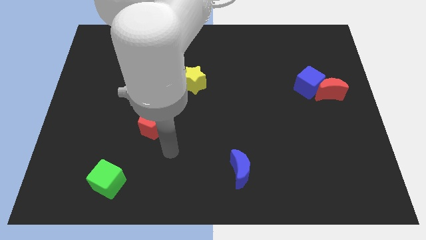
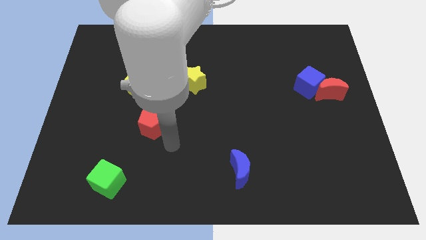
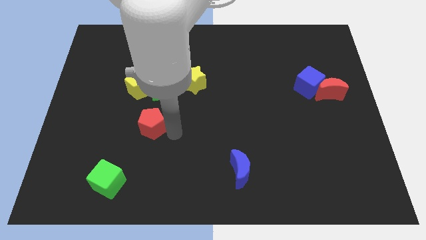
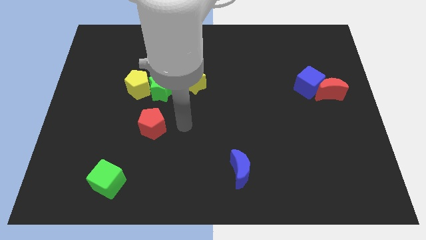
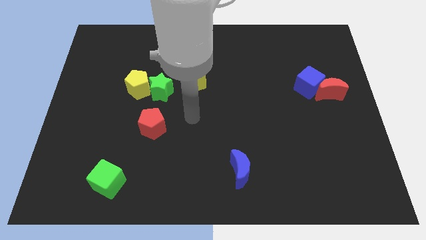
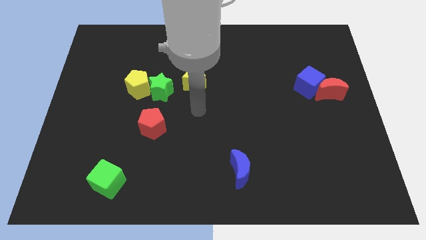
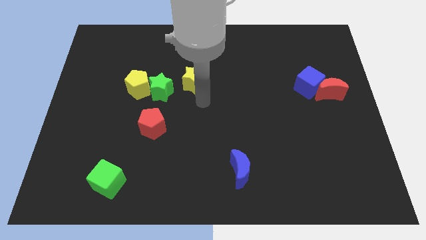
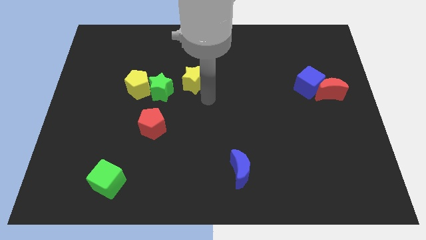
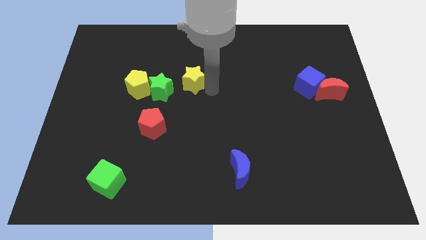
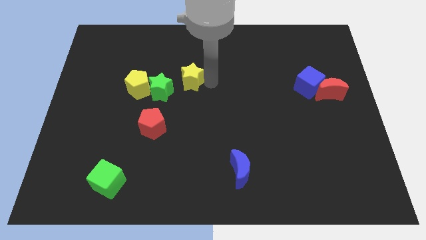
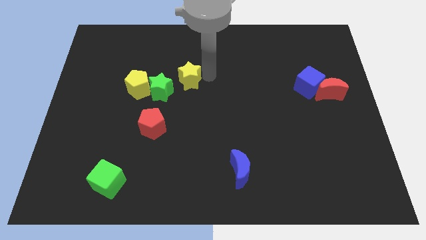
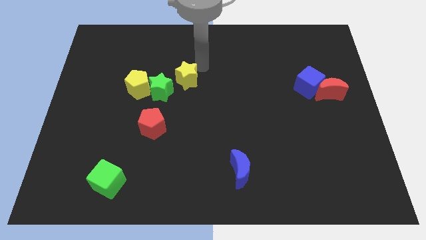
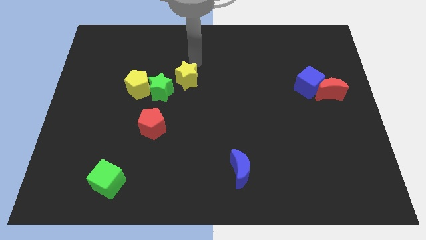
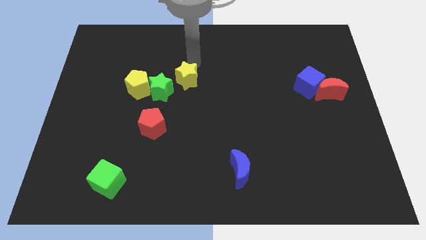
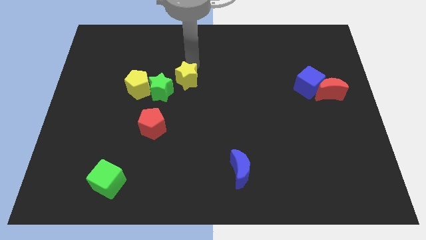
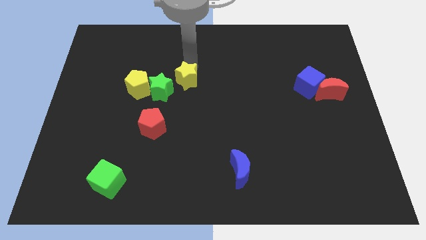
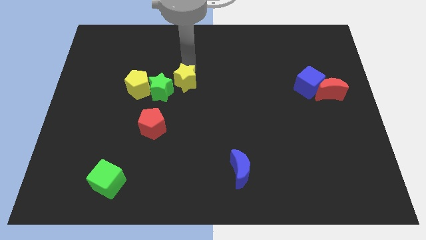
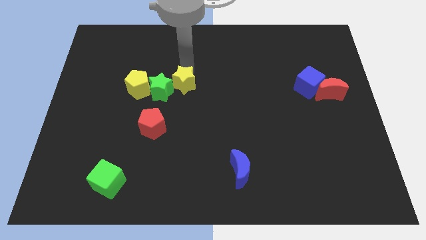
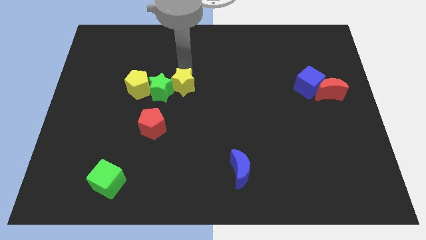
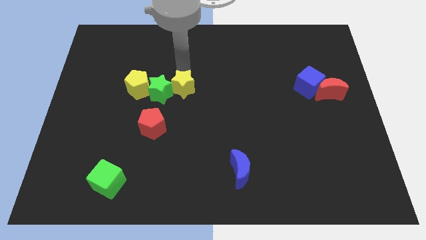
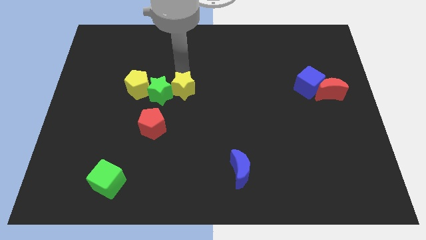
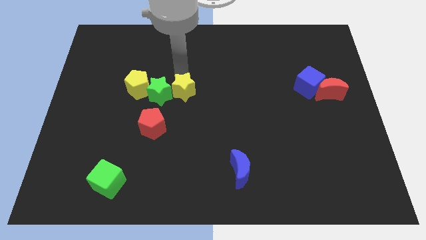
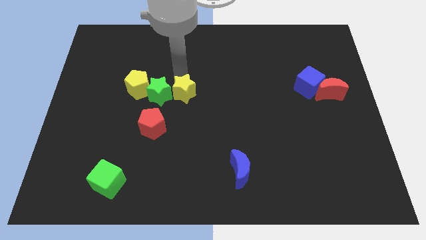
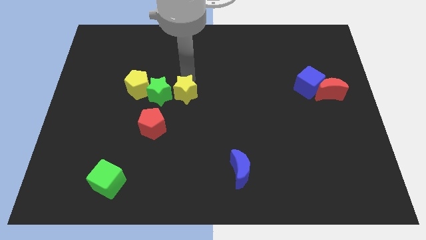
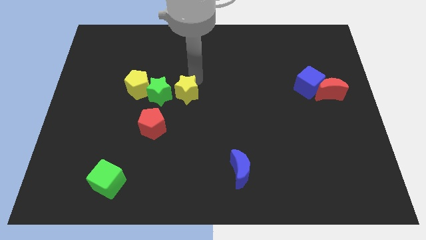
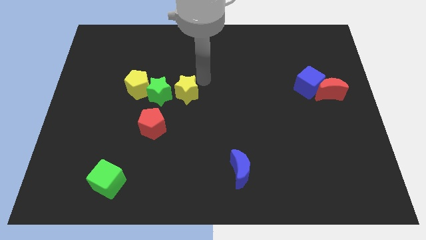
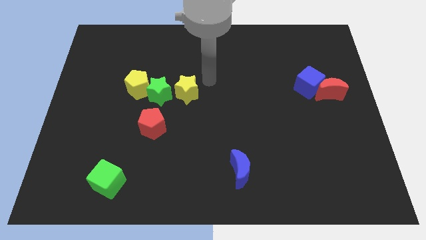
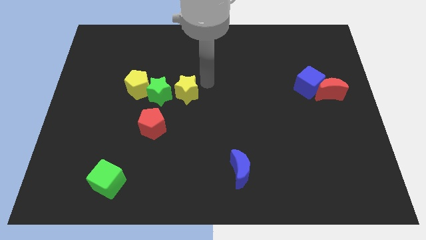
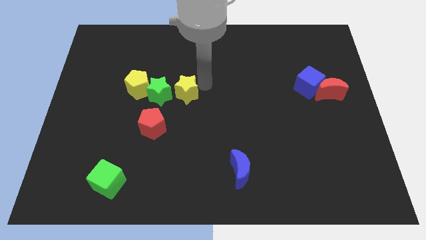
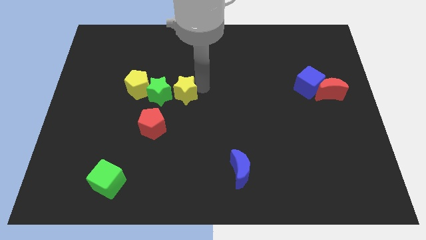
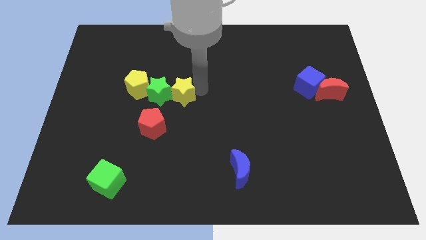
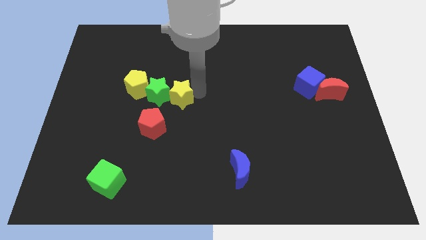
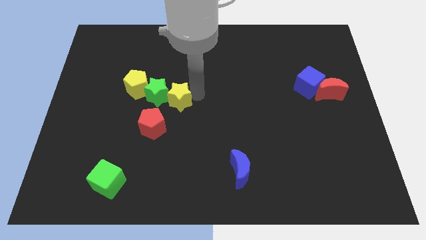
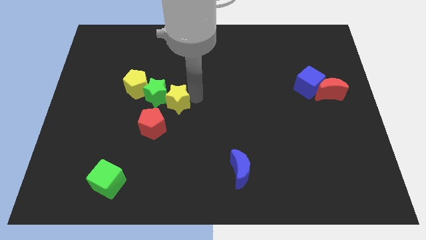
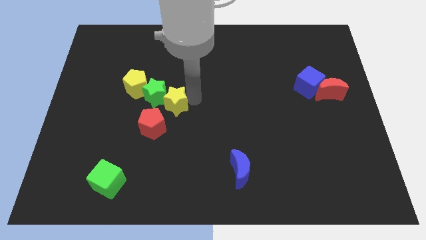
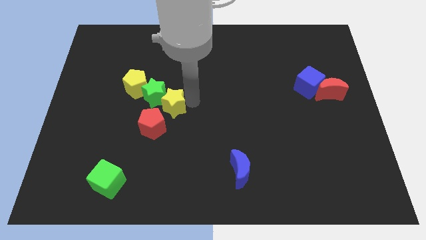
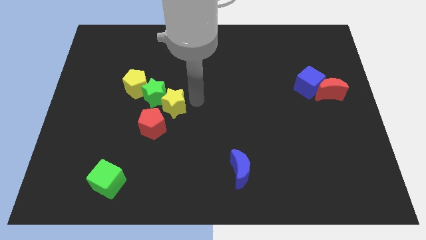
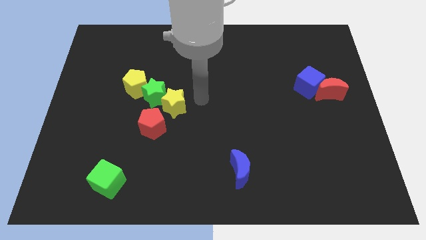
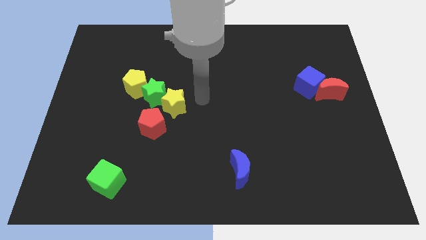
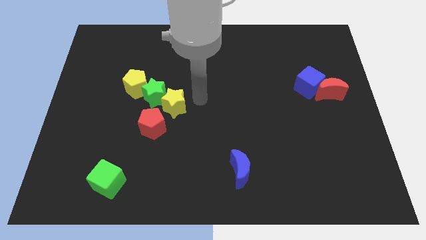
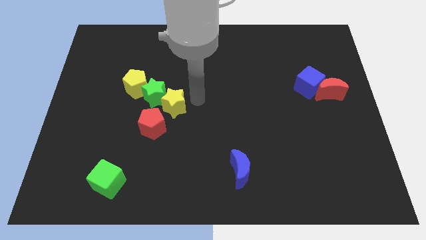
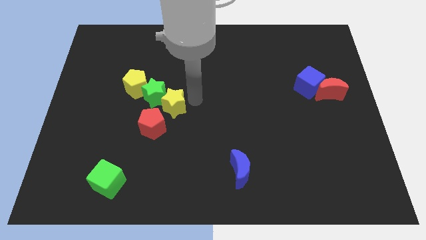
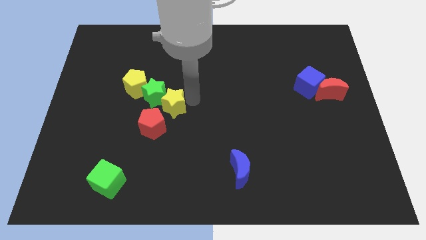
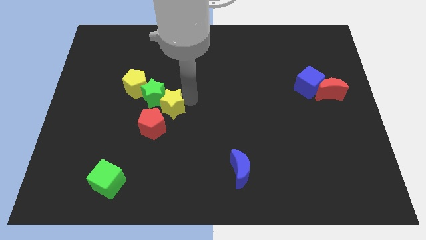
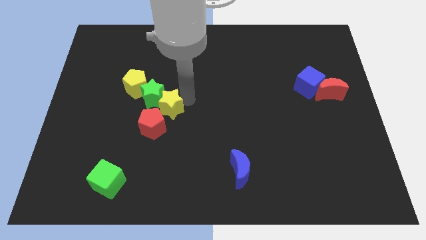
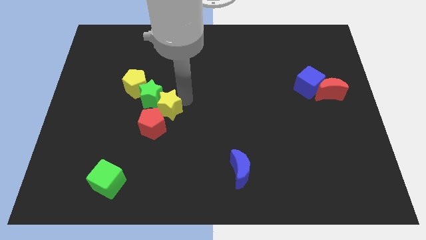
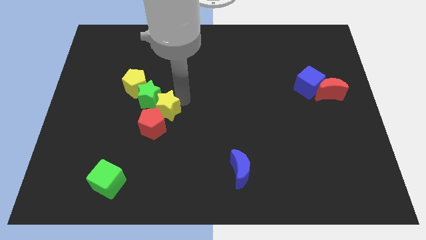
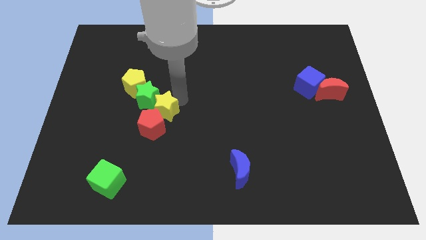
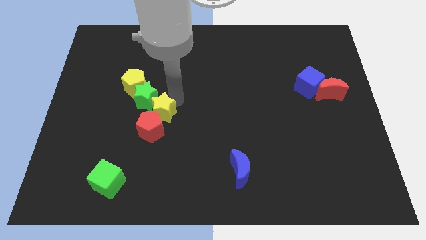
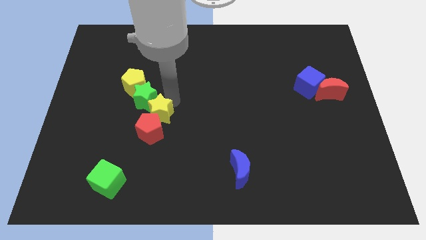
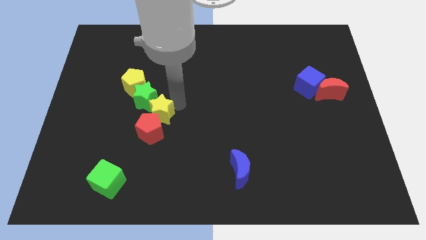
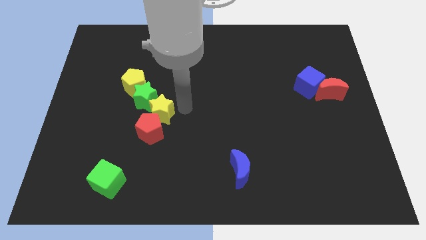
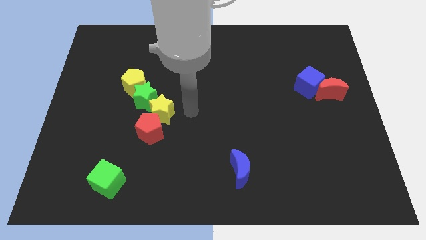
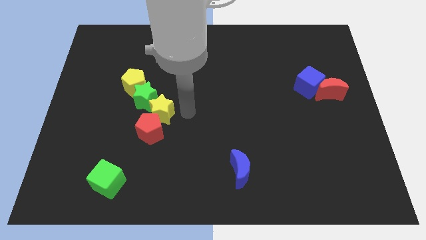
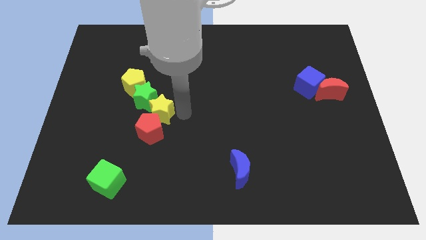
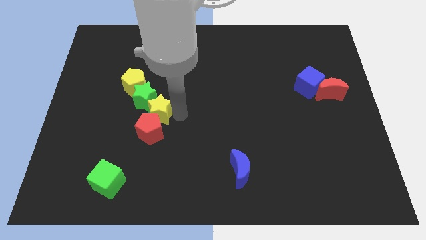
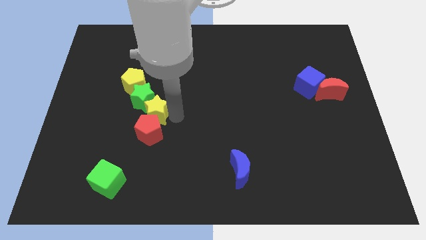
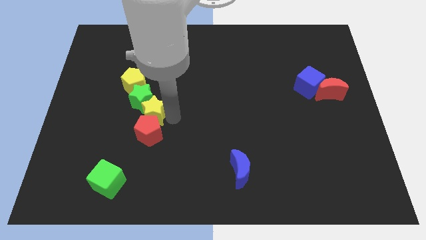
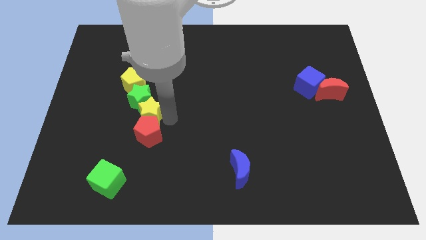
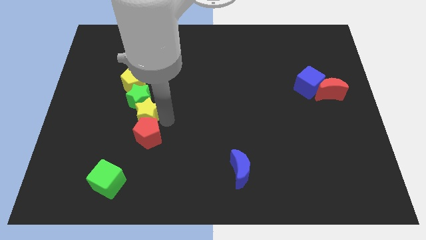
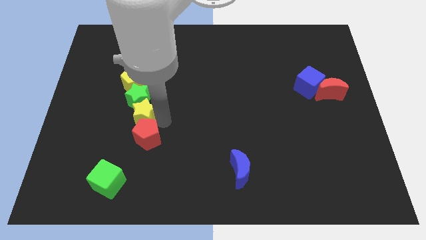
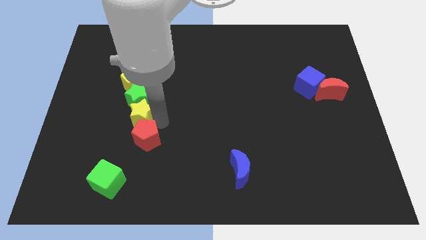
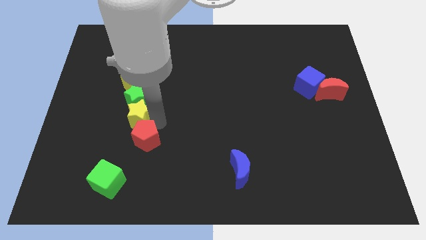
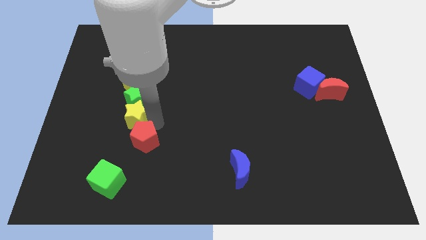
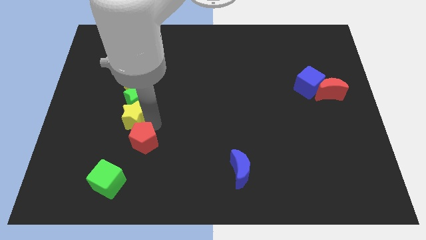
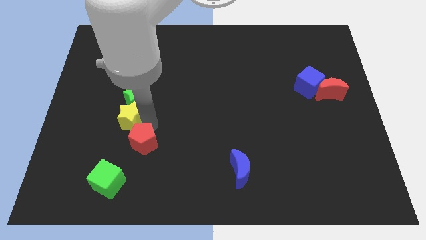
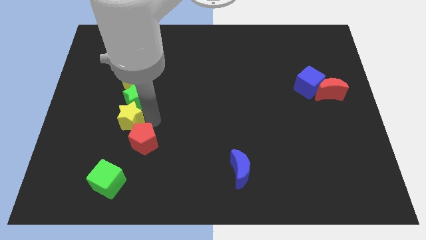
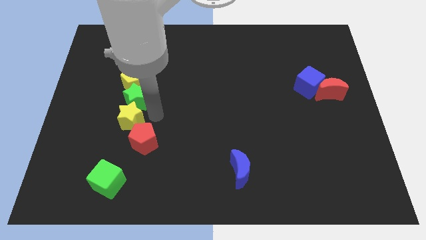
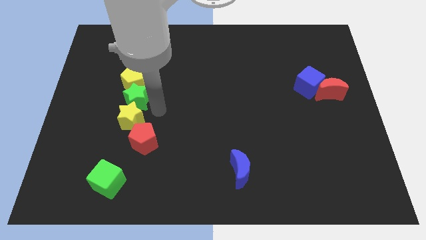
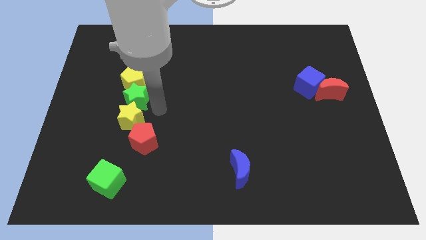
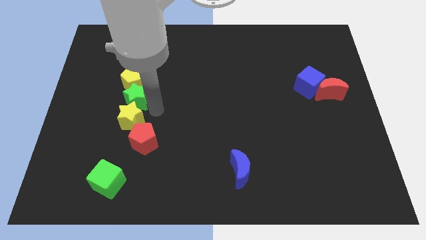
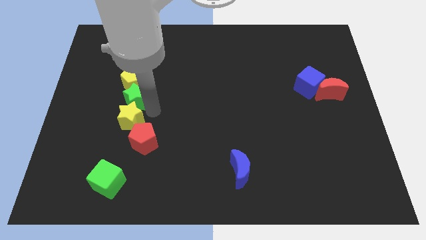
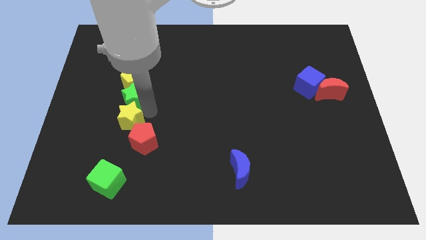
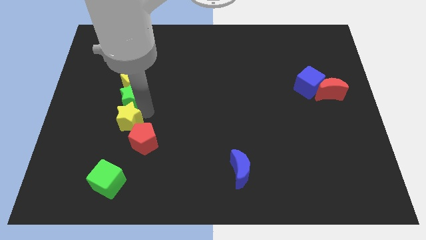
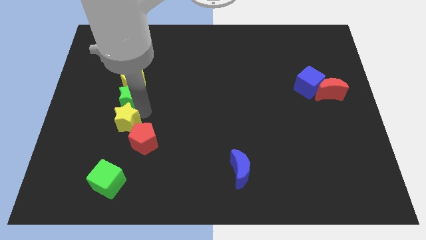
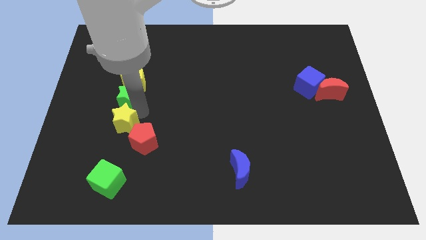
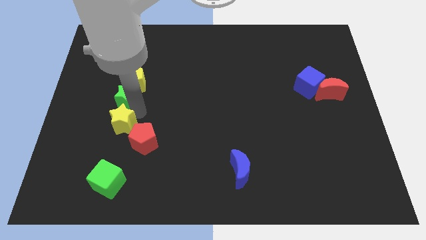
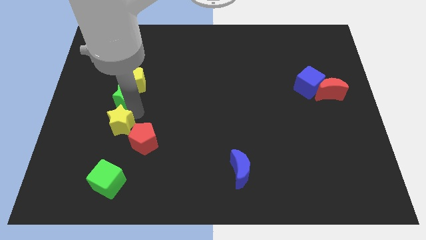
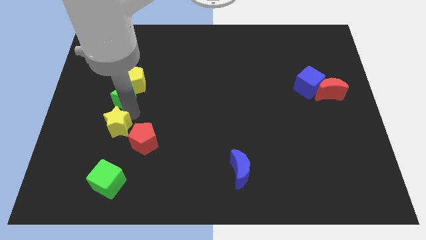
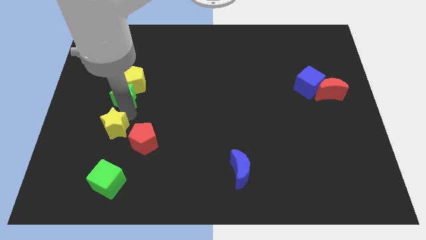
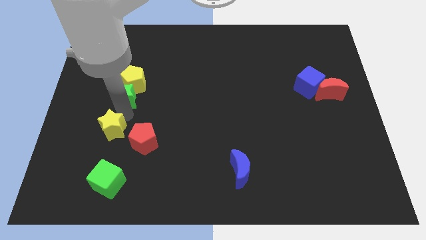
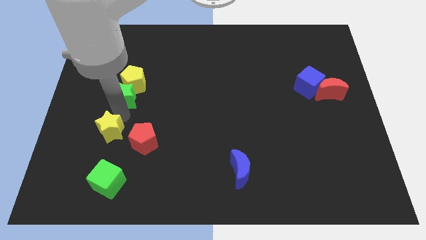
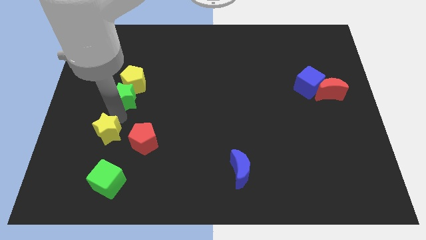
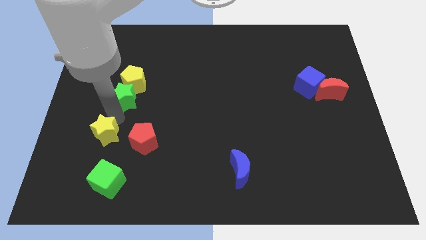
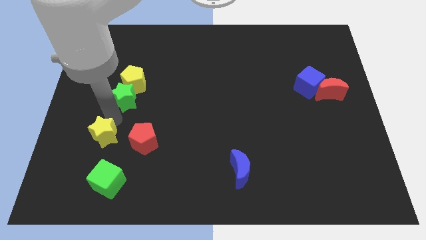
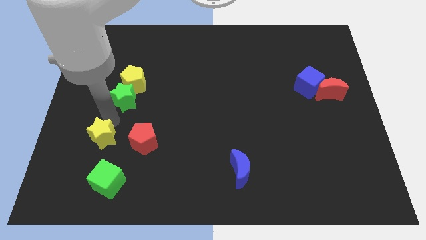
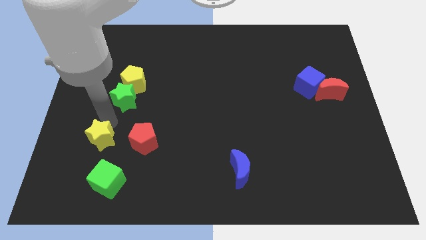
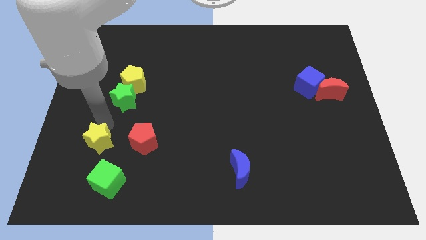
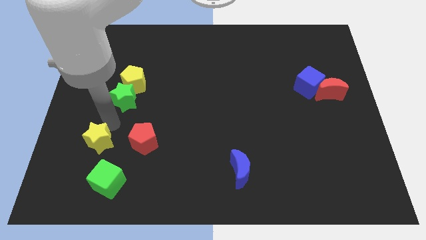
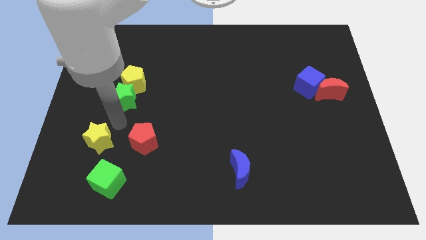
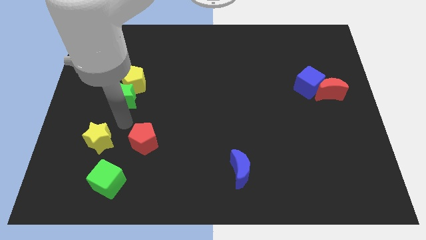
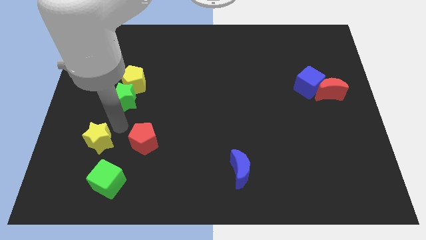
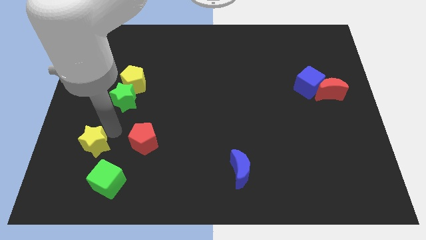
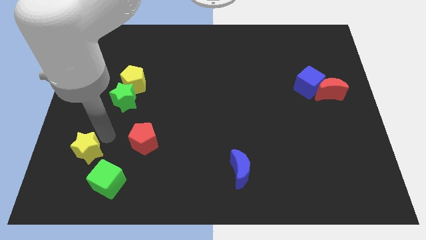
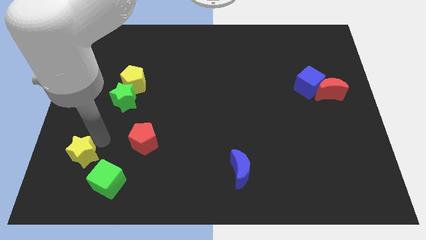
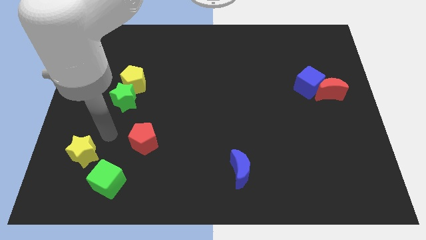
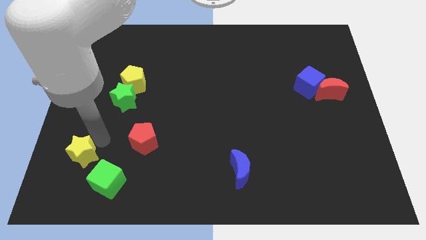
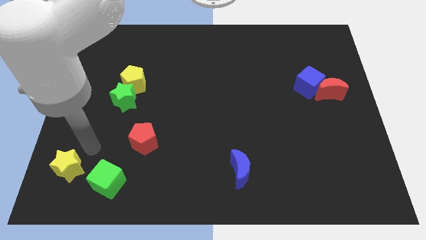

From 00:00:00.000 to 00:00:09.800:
slide the yellow star to the bottom left of the board
